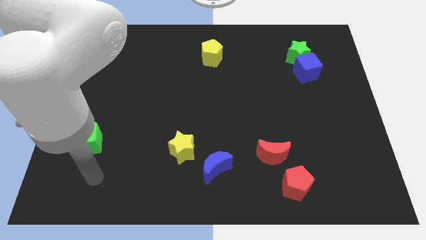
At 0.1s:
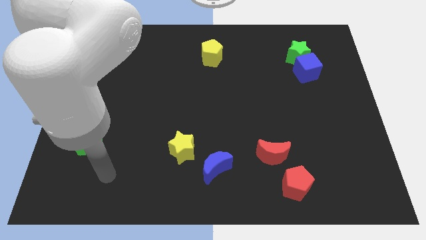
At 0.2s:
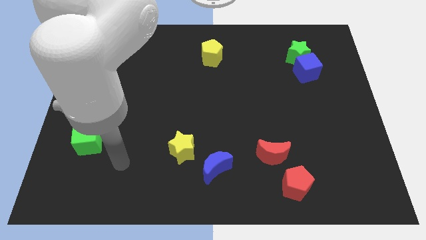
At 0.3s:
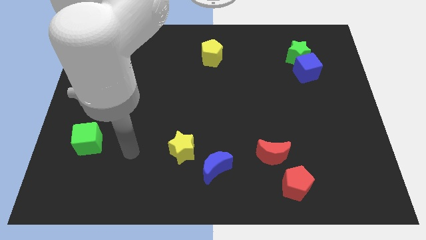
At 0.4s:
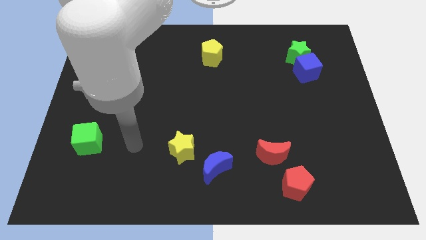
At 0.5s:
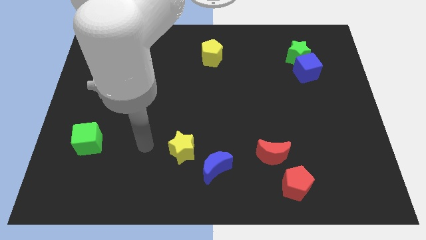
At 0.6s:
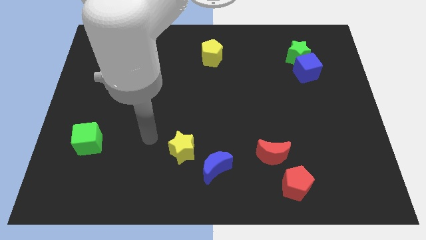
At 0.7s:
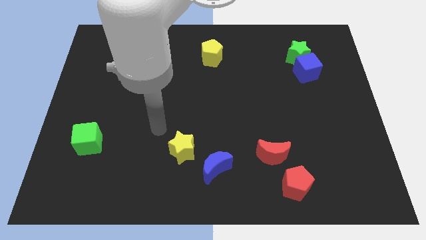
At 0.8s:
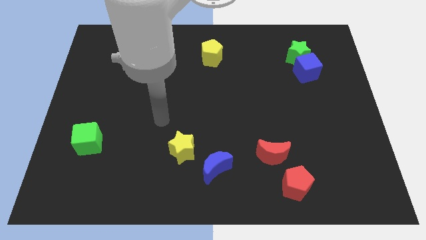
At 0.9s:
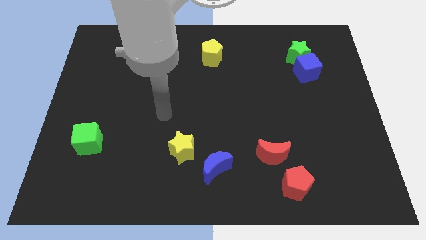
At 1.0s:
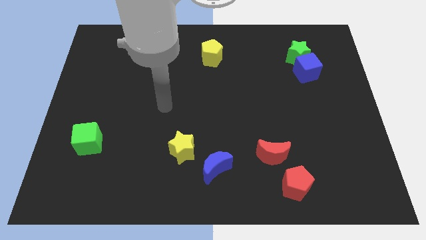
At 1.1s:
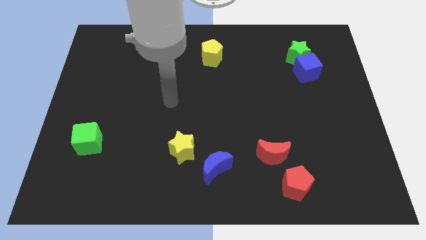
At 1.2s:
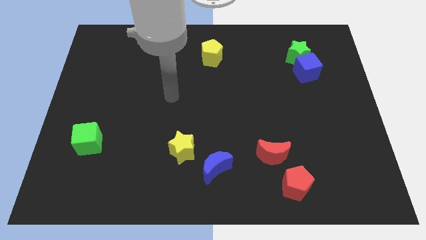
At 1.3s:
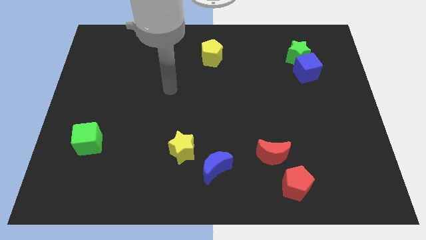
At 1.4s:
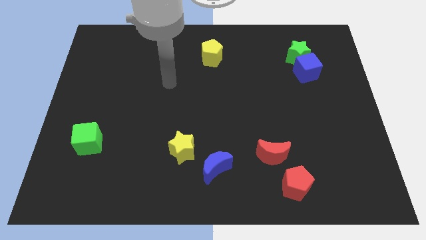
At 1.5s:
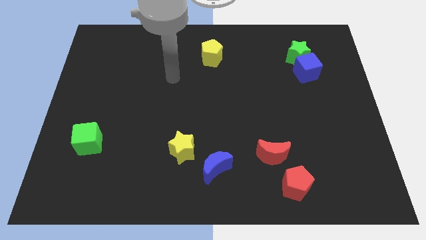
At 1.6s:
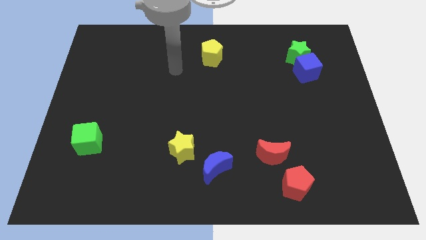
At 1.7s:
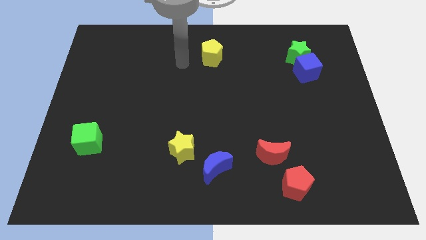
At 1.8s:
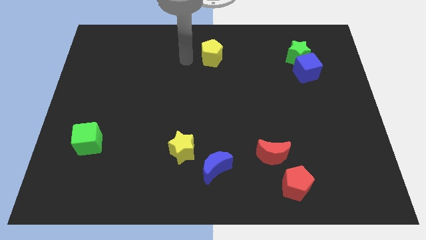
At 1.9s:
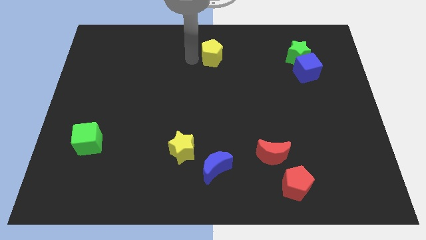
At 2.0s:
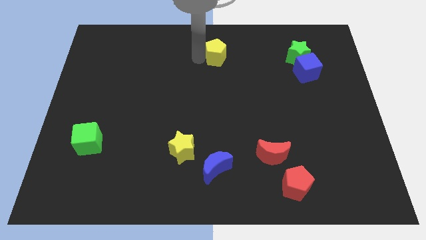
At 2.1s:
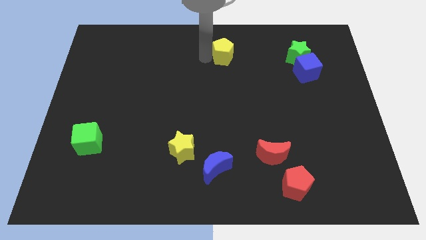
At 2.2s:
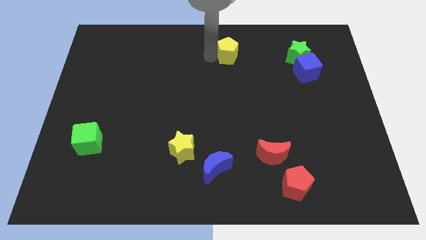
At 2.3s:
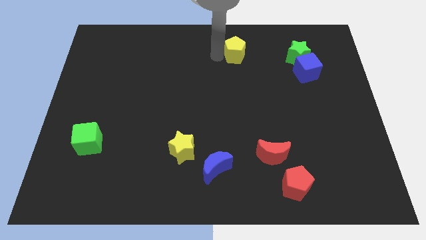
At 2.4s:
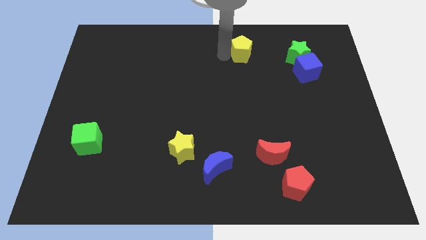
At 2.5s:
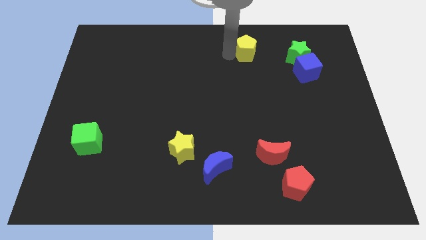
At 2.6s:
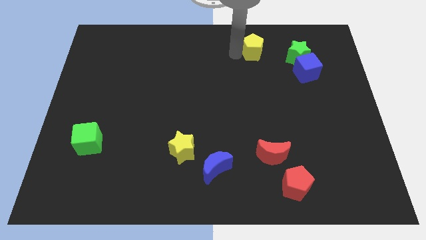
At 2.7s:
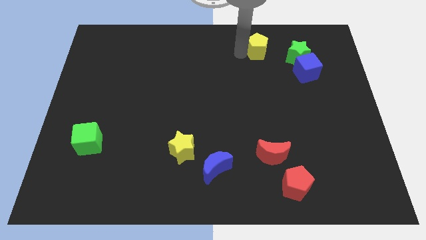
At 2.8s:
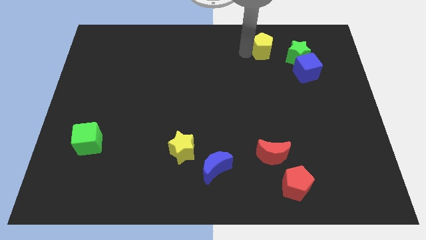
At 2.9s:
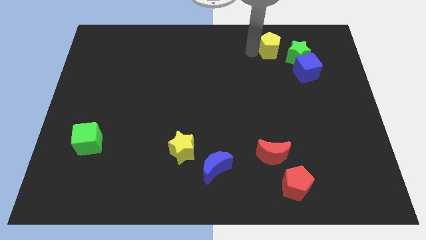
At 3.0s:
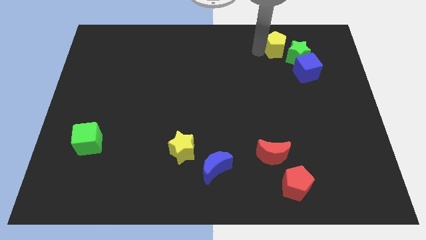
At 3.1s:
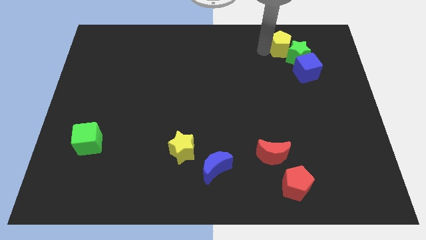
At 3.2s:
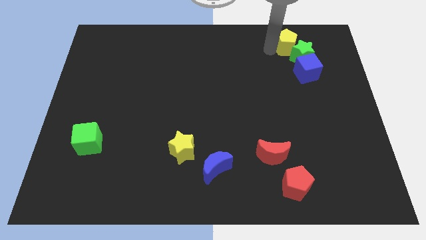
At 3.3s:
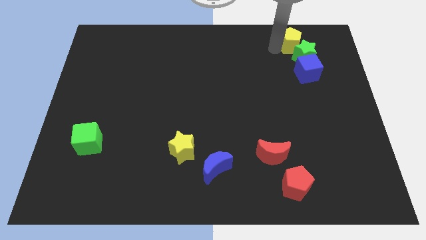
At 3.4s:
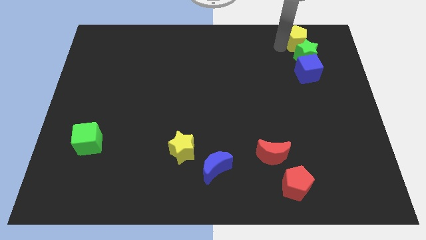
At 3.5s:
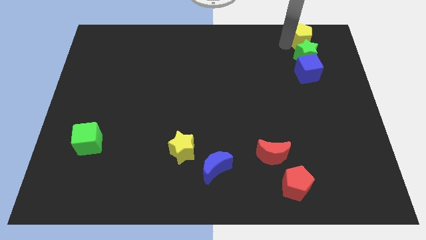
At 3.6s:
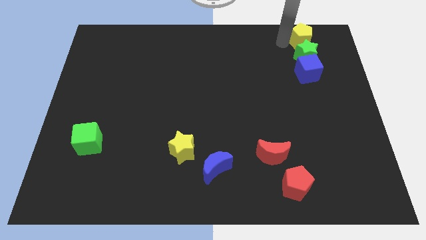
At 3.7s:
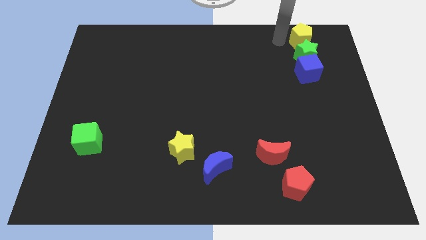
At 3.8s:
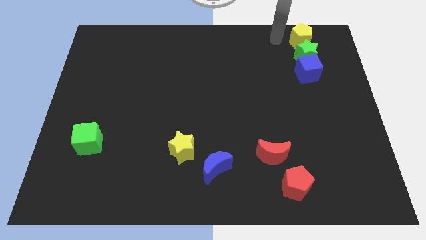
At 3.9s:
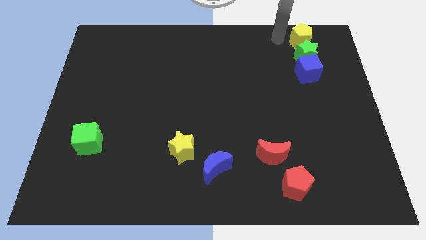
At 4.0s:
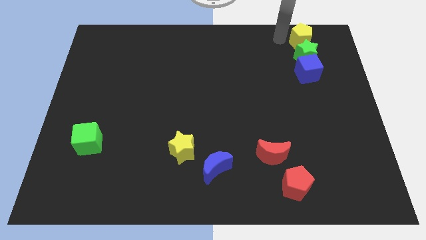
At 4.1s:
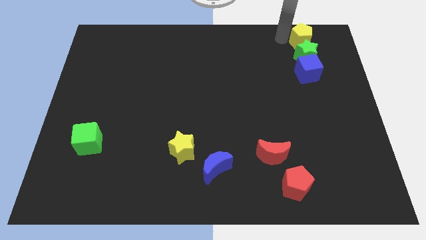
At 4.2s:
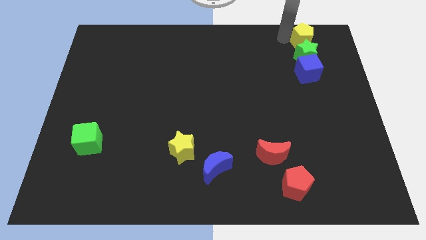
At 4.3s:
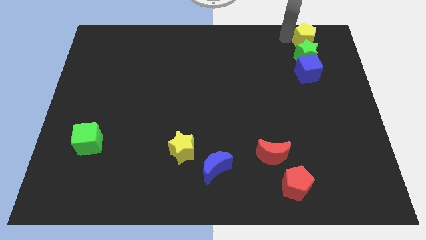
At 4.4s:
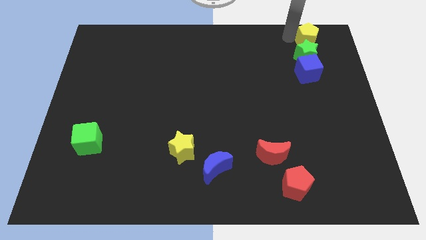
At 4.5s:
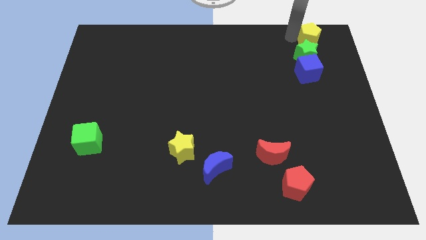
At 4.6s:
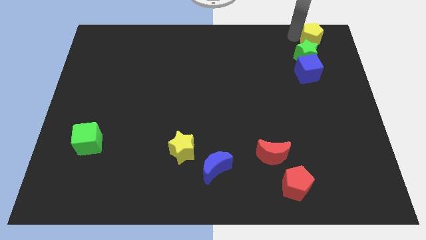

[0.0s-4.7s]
put the yellow pentagon to the top right of the board

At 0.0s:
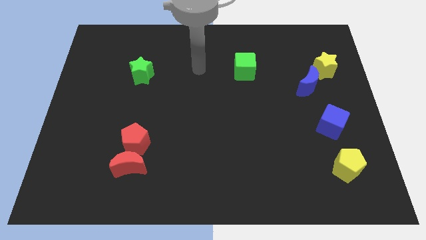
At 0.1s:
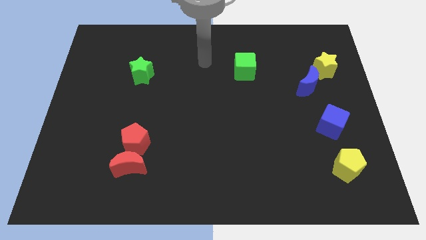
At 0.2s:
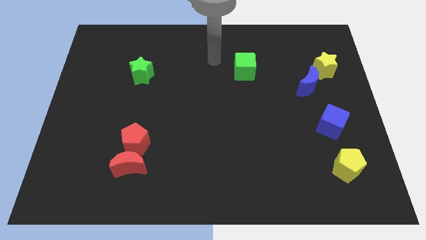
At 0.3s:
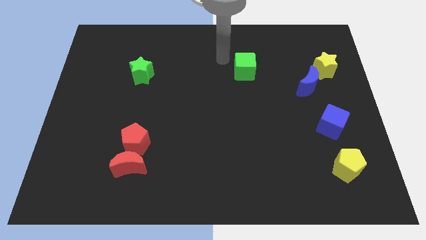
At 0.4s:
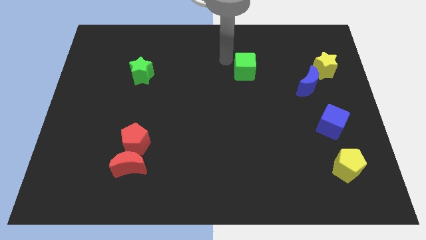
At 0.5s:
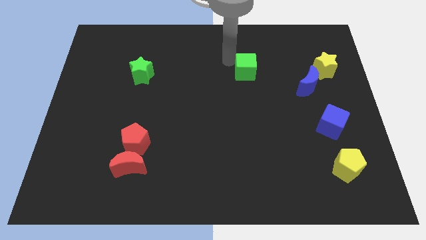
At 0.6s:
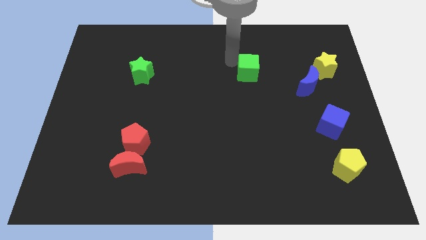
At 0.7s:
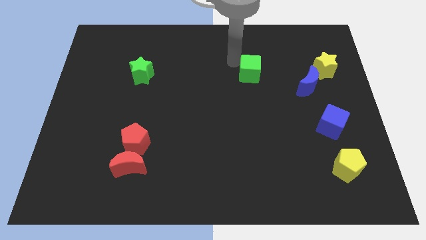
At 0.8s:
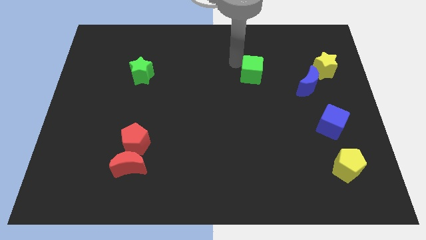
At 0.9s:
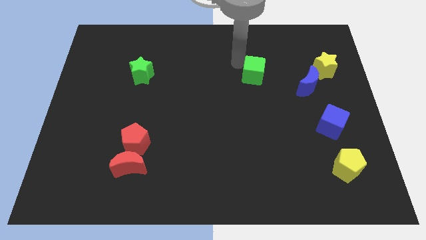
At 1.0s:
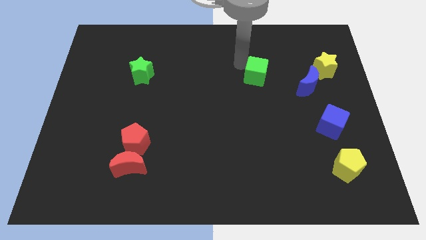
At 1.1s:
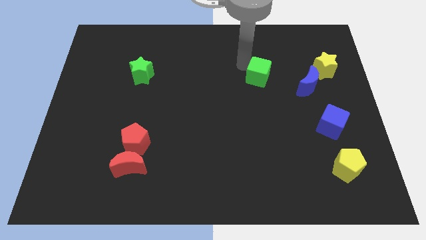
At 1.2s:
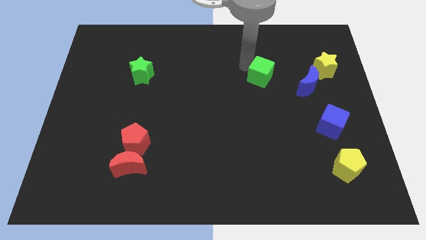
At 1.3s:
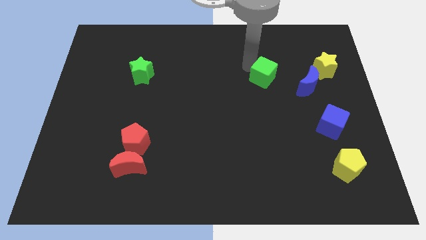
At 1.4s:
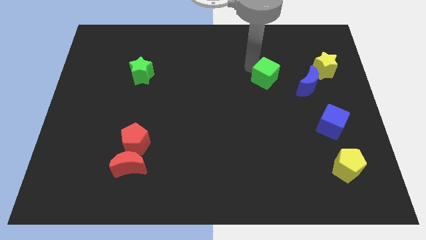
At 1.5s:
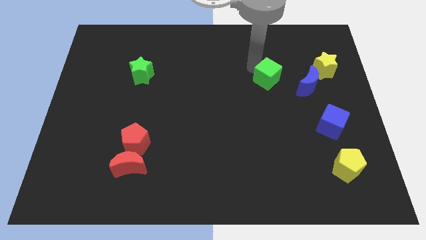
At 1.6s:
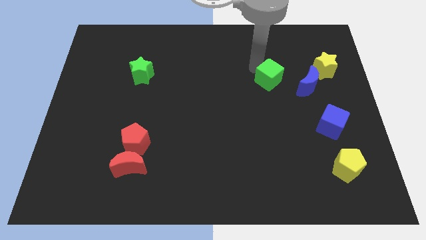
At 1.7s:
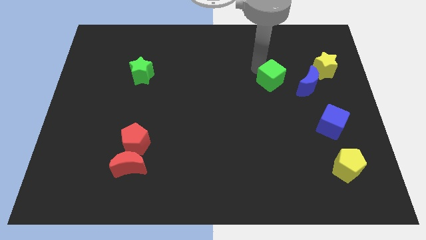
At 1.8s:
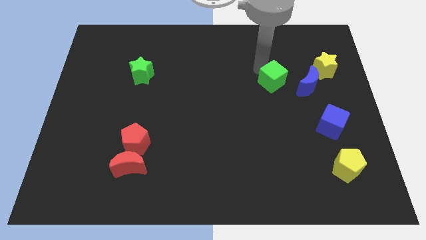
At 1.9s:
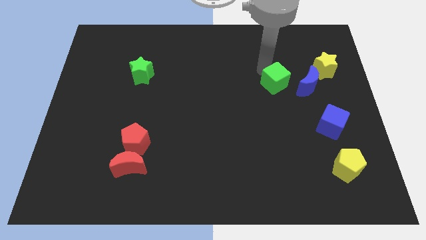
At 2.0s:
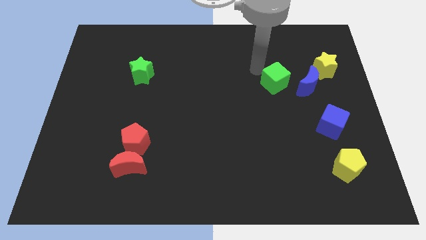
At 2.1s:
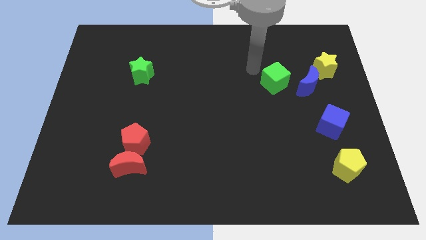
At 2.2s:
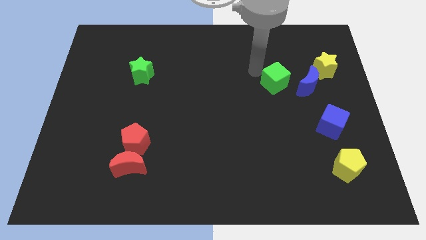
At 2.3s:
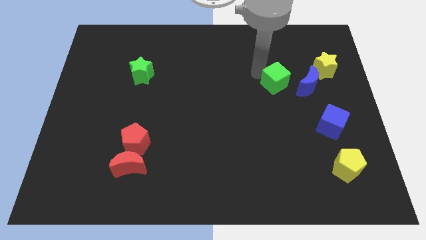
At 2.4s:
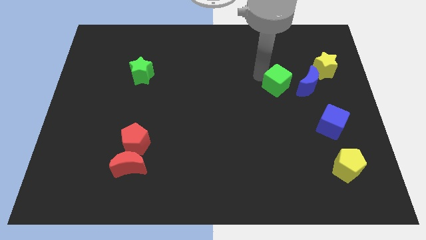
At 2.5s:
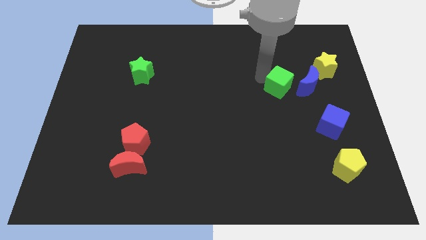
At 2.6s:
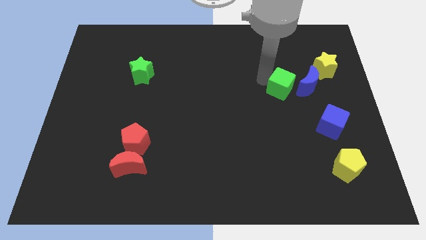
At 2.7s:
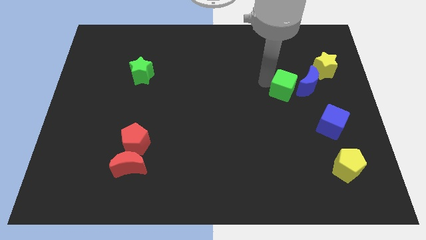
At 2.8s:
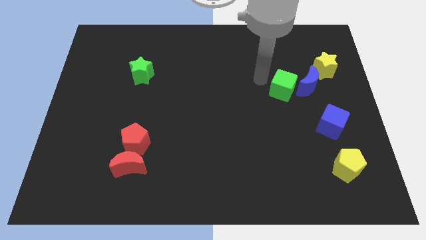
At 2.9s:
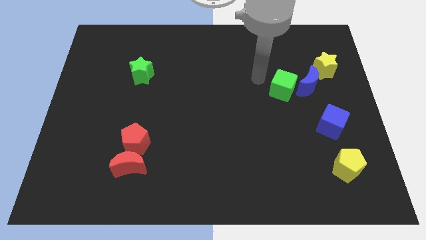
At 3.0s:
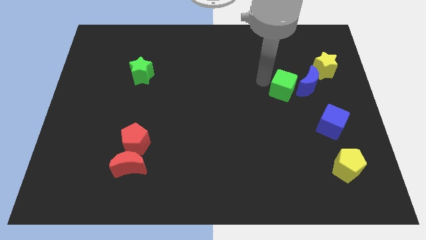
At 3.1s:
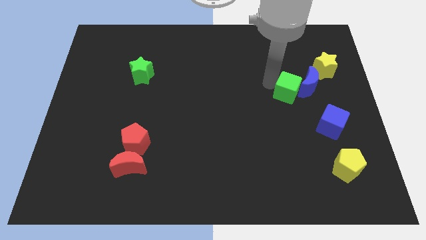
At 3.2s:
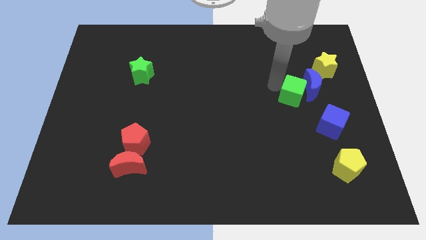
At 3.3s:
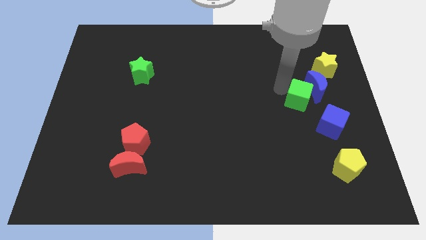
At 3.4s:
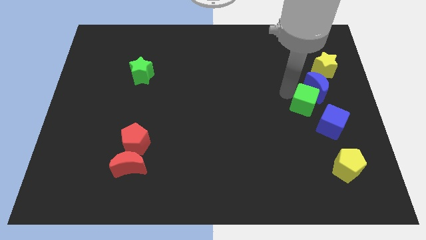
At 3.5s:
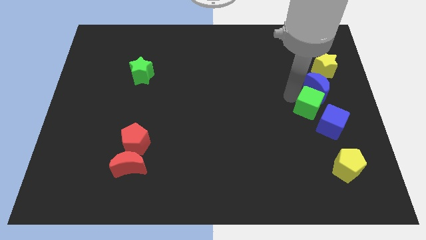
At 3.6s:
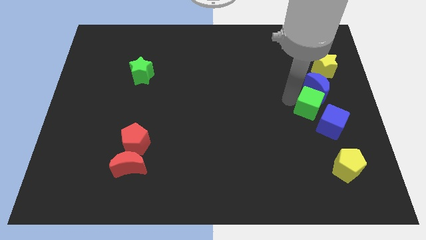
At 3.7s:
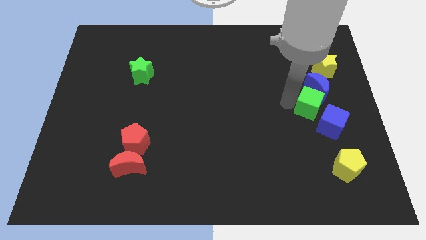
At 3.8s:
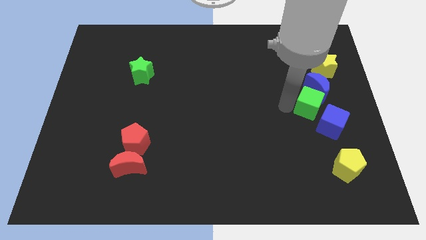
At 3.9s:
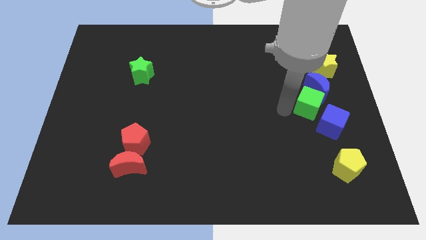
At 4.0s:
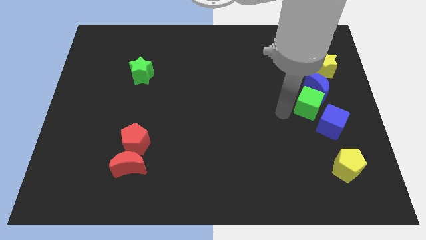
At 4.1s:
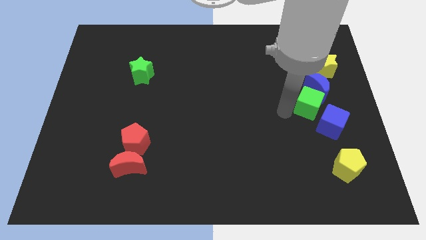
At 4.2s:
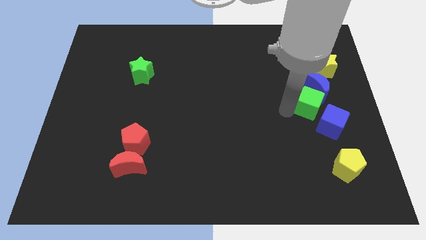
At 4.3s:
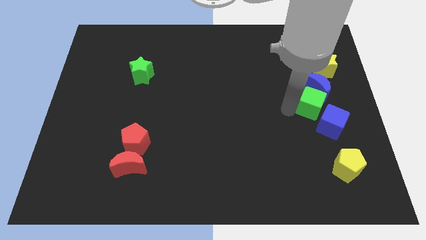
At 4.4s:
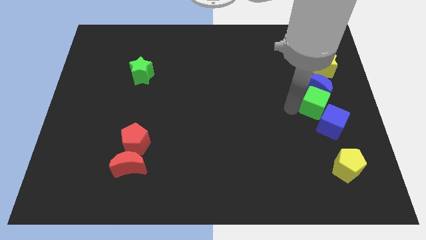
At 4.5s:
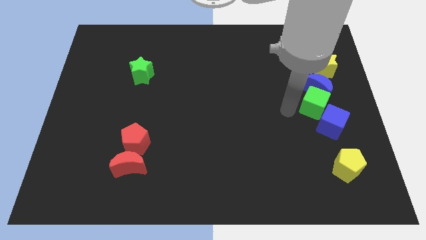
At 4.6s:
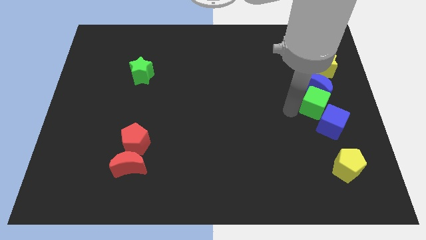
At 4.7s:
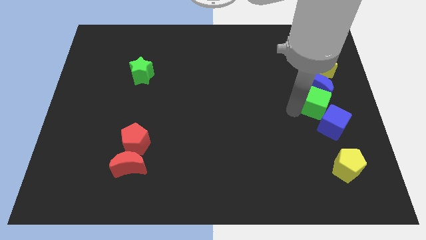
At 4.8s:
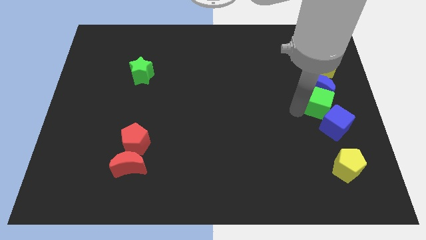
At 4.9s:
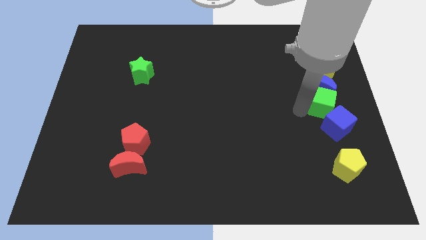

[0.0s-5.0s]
move the green cube to the right side
